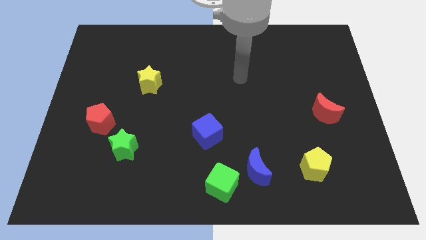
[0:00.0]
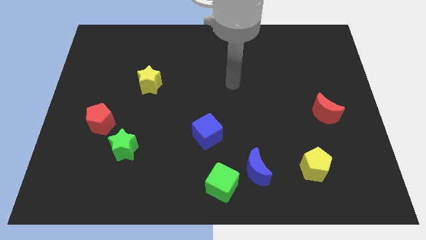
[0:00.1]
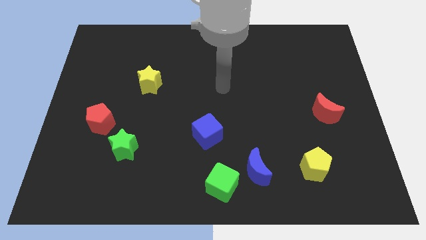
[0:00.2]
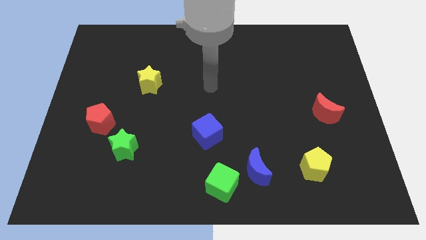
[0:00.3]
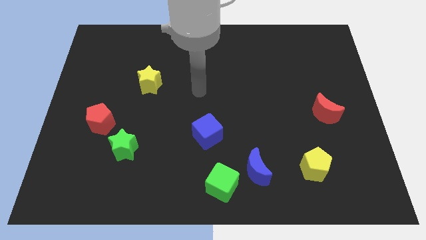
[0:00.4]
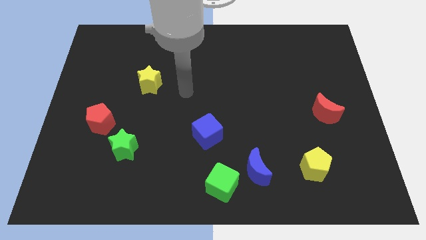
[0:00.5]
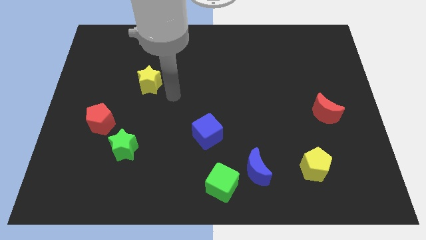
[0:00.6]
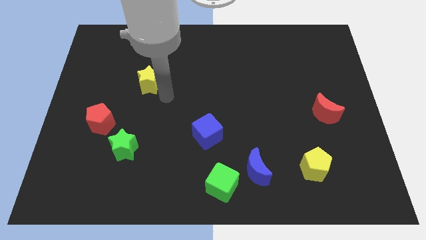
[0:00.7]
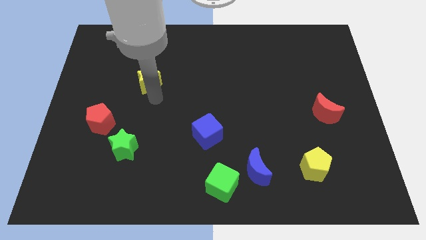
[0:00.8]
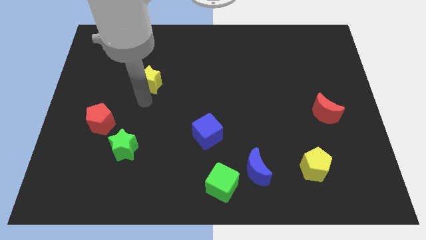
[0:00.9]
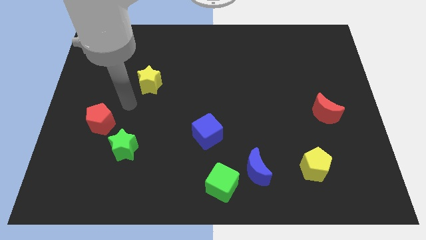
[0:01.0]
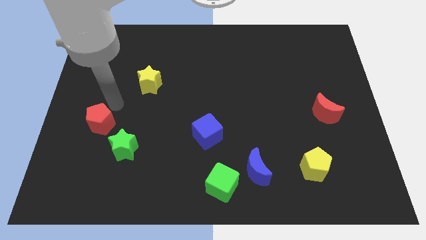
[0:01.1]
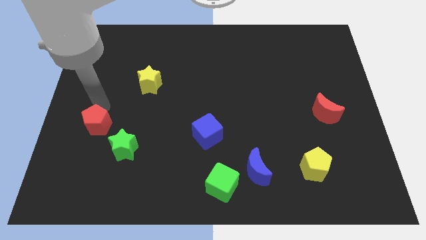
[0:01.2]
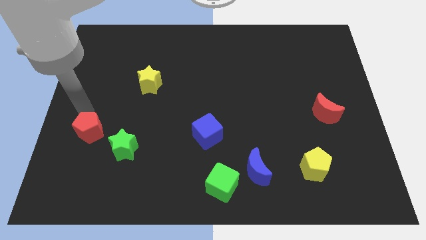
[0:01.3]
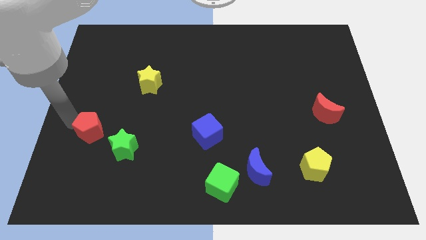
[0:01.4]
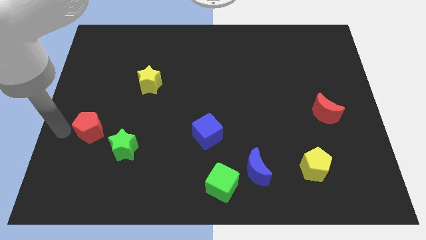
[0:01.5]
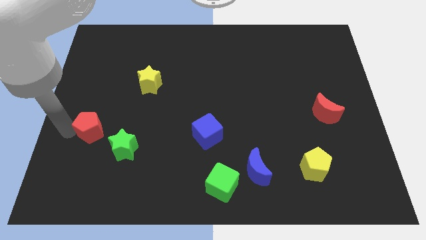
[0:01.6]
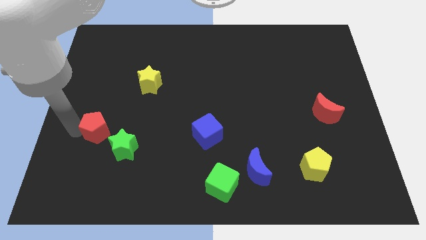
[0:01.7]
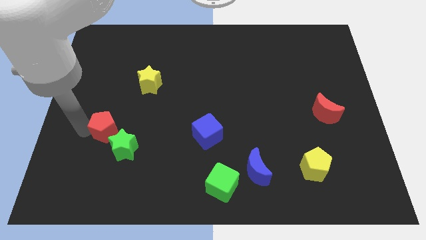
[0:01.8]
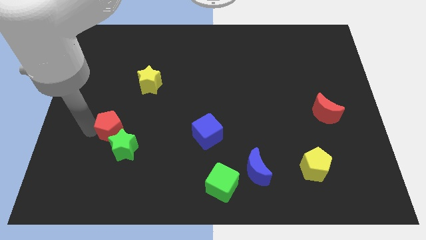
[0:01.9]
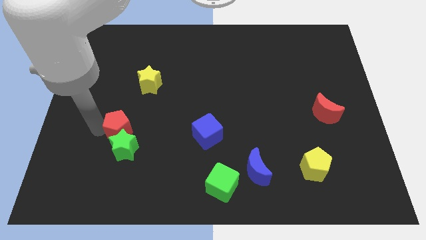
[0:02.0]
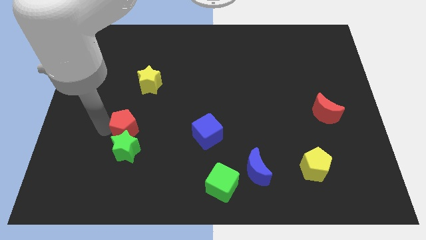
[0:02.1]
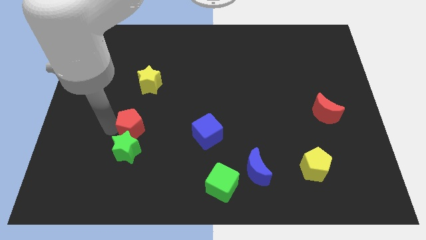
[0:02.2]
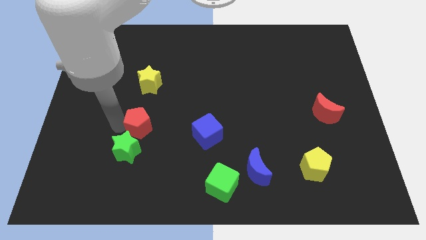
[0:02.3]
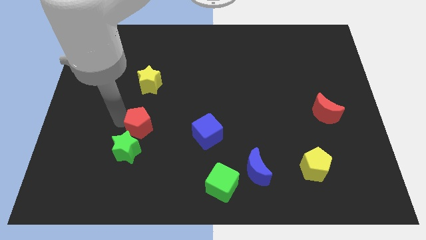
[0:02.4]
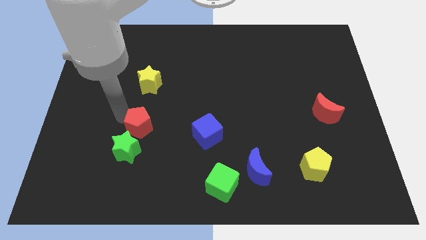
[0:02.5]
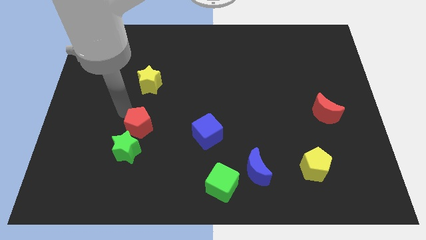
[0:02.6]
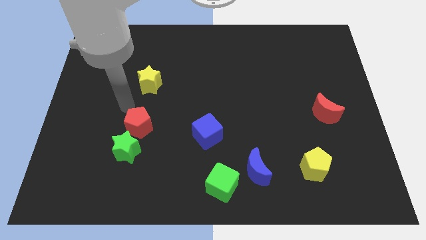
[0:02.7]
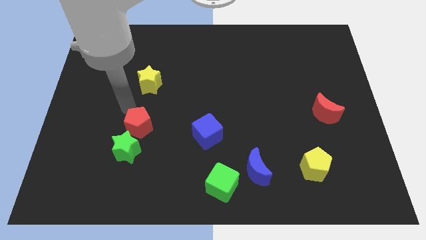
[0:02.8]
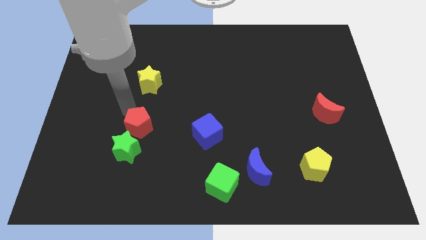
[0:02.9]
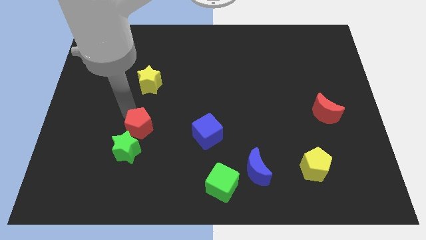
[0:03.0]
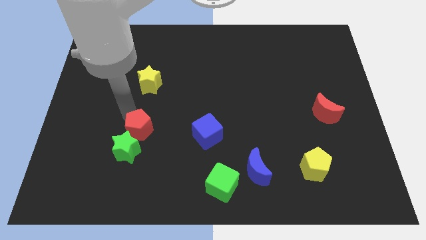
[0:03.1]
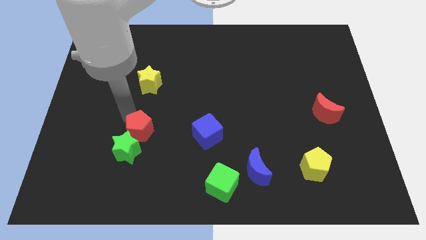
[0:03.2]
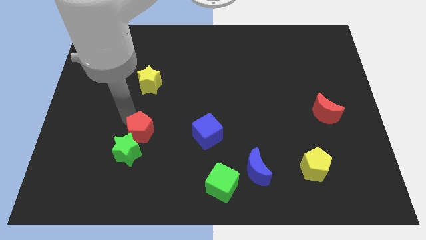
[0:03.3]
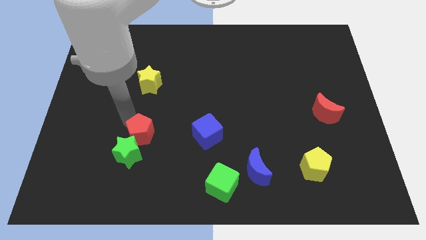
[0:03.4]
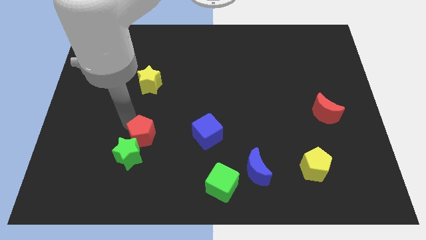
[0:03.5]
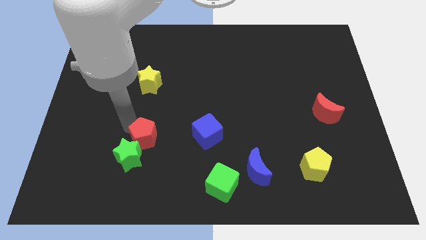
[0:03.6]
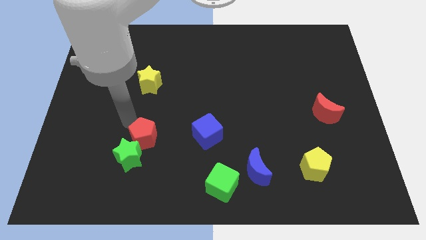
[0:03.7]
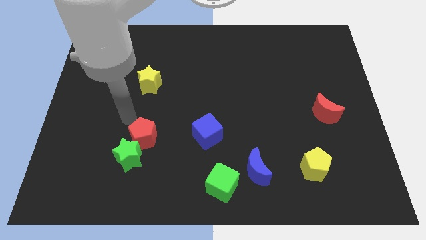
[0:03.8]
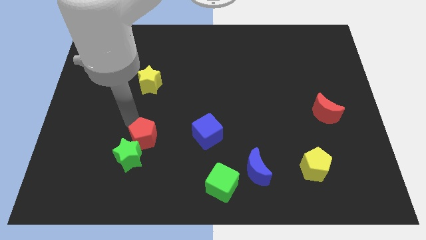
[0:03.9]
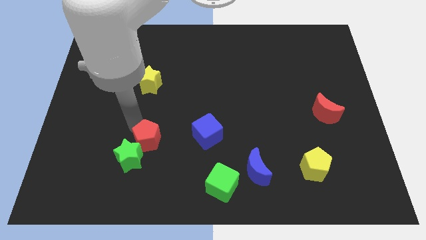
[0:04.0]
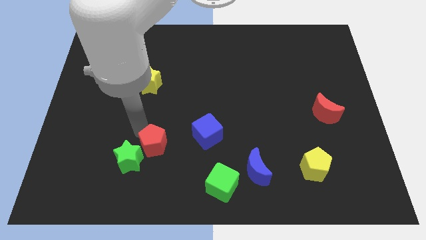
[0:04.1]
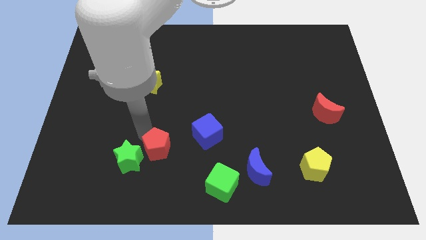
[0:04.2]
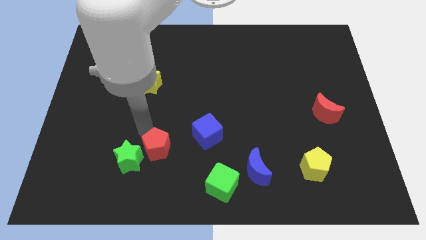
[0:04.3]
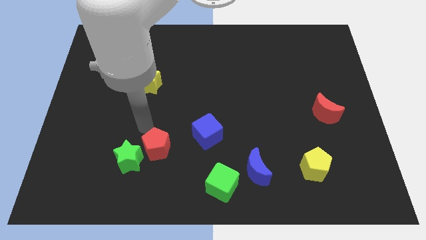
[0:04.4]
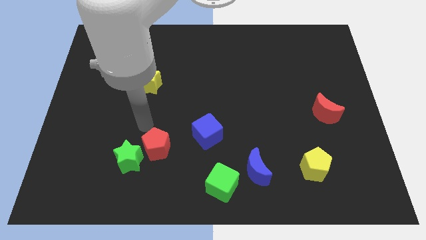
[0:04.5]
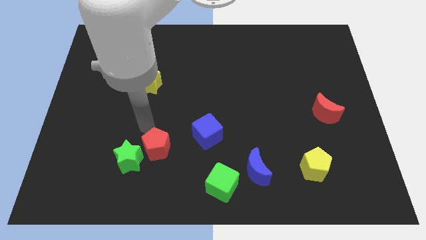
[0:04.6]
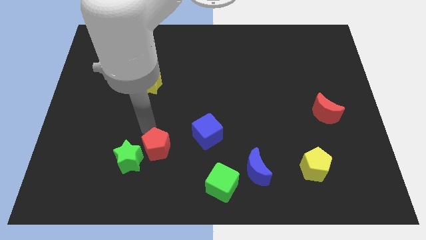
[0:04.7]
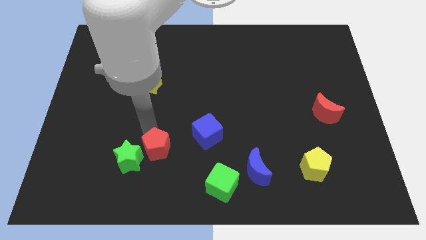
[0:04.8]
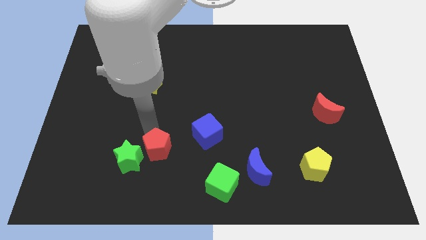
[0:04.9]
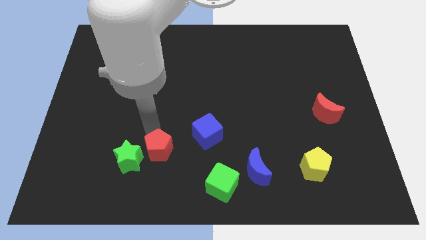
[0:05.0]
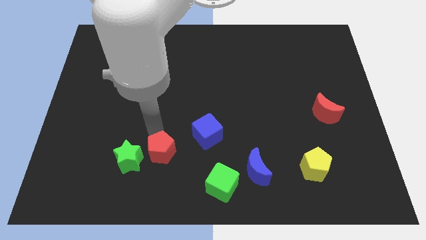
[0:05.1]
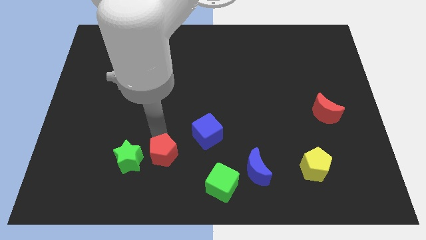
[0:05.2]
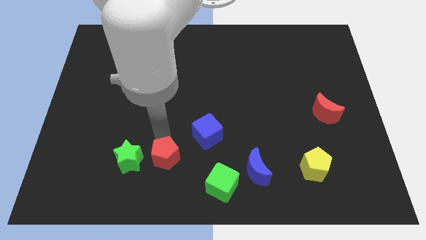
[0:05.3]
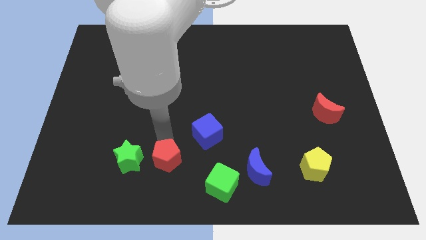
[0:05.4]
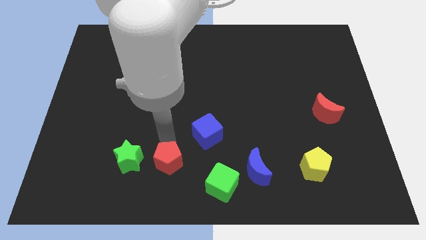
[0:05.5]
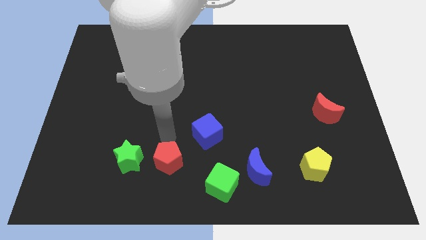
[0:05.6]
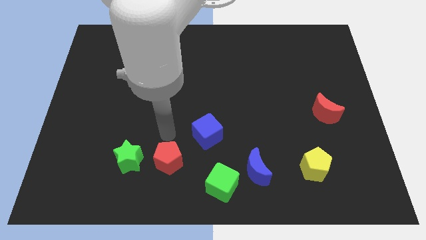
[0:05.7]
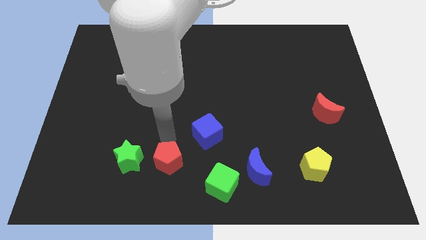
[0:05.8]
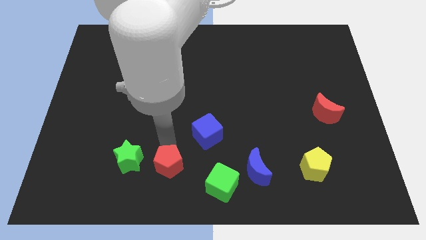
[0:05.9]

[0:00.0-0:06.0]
push the red pentagon to the left of the green cube

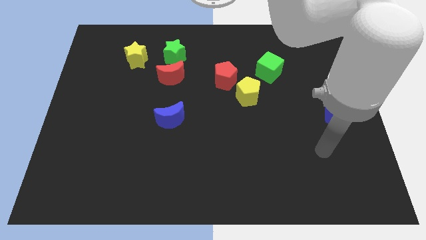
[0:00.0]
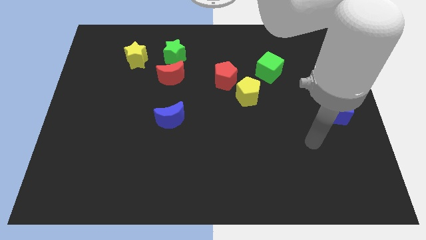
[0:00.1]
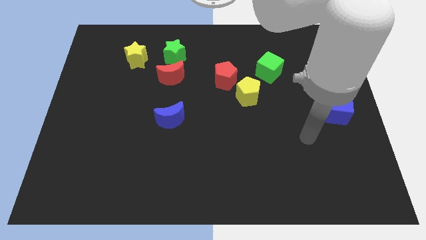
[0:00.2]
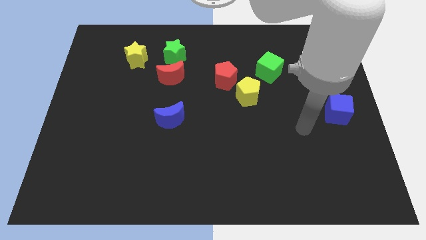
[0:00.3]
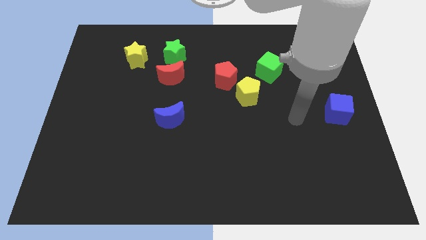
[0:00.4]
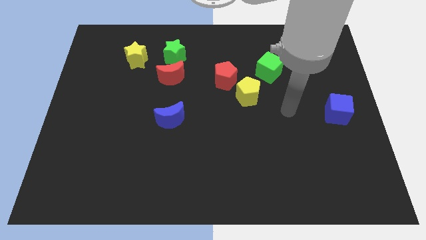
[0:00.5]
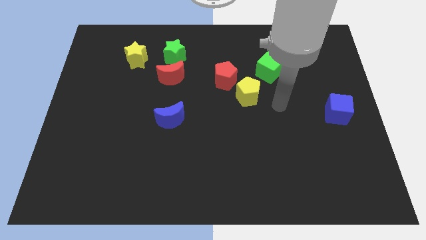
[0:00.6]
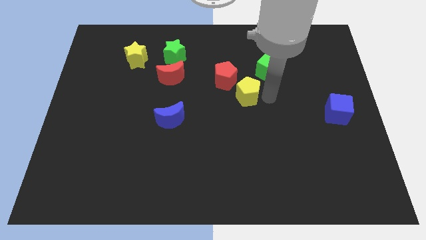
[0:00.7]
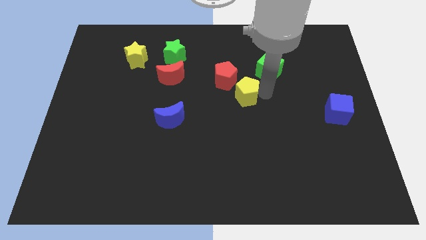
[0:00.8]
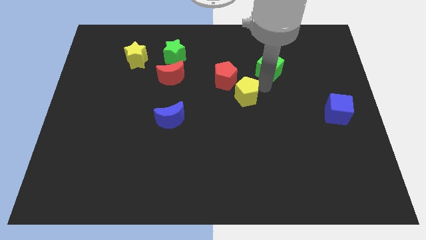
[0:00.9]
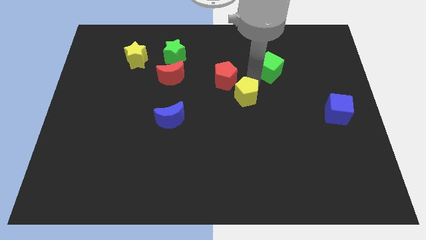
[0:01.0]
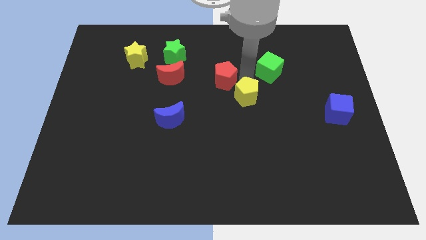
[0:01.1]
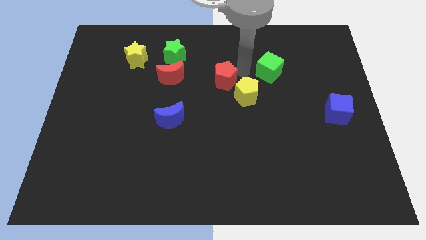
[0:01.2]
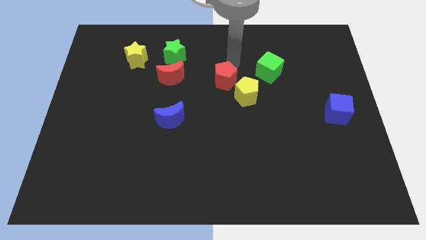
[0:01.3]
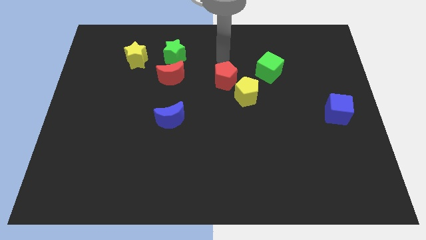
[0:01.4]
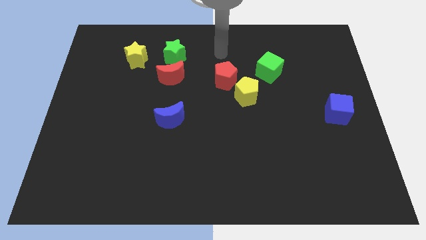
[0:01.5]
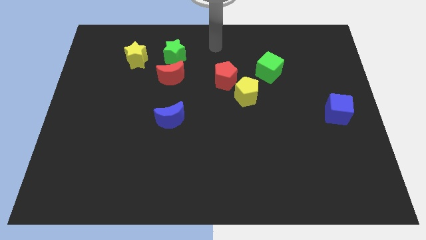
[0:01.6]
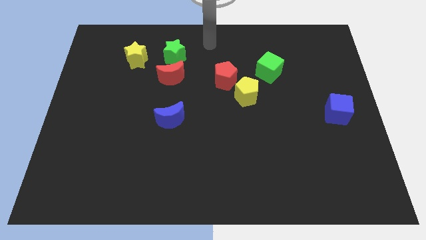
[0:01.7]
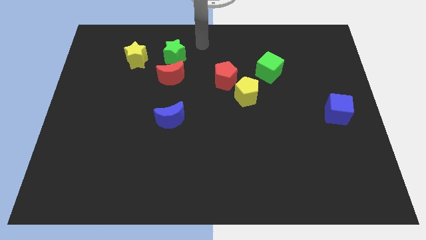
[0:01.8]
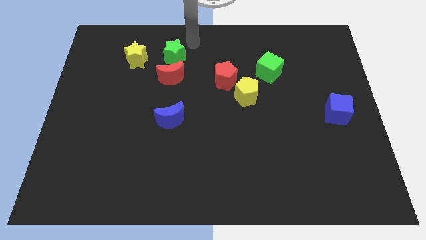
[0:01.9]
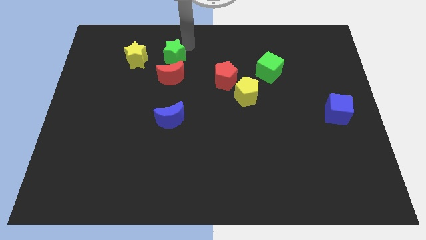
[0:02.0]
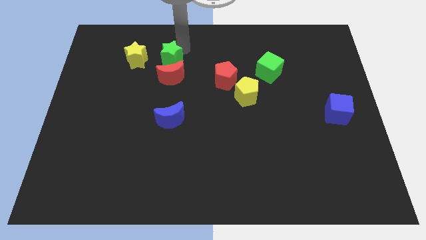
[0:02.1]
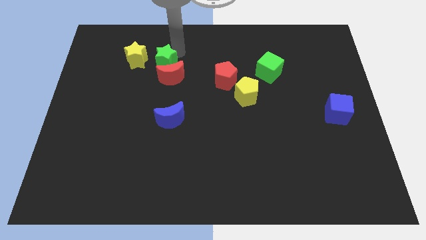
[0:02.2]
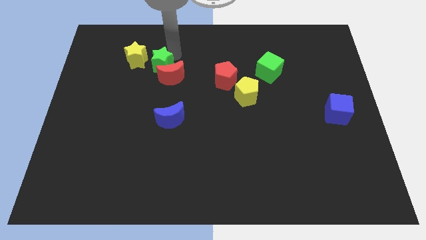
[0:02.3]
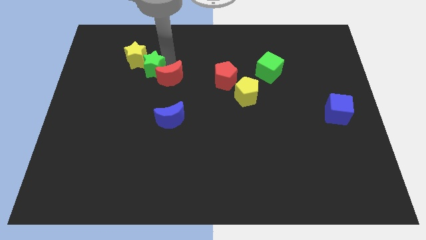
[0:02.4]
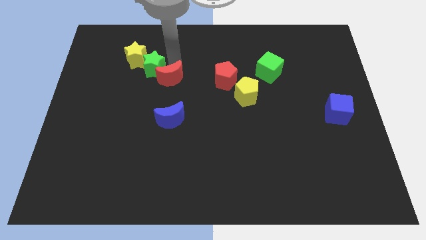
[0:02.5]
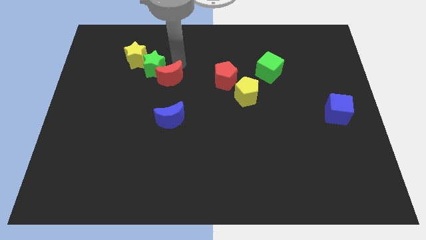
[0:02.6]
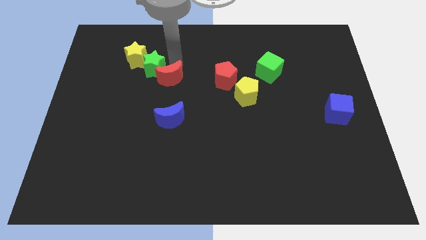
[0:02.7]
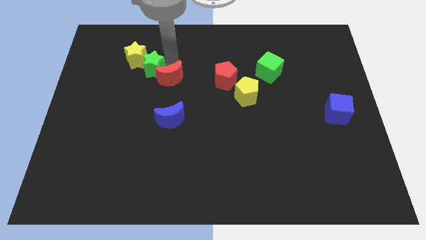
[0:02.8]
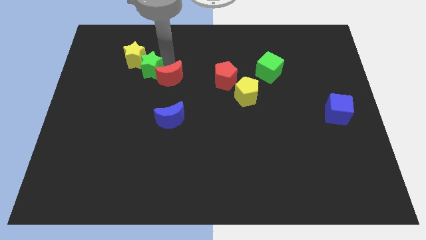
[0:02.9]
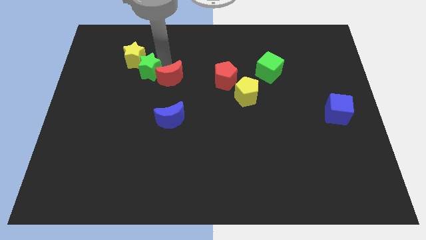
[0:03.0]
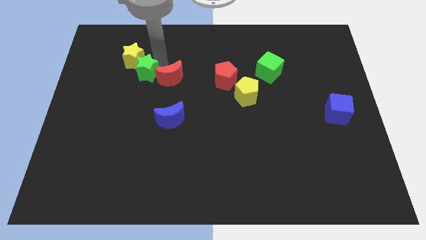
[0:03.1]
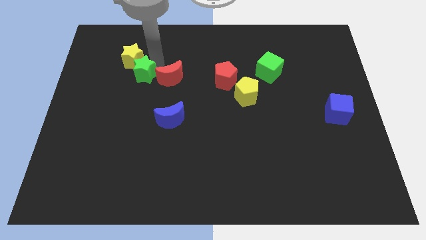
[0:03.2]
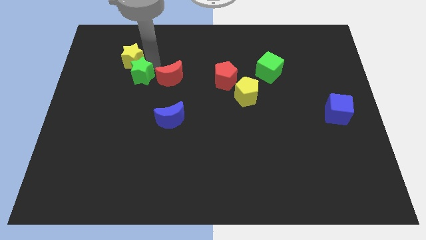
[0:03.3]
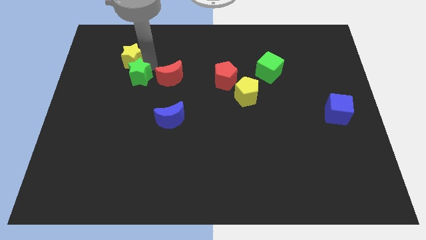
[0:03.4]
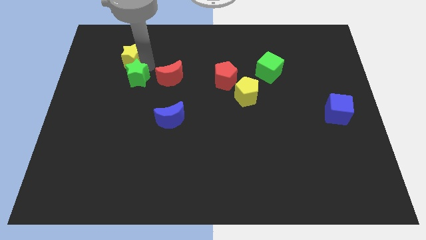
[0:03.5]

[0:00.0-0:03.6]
put the green star to the bottom left side of the yellow star
